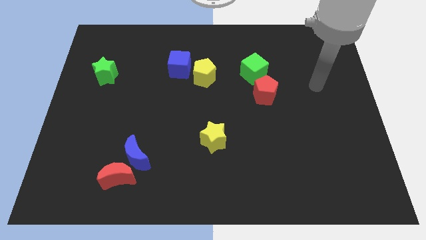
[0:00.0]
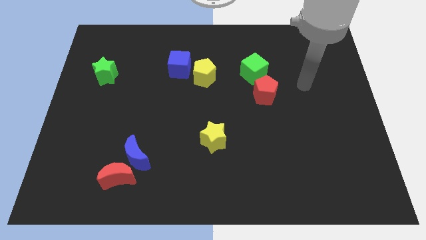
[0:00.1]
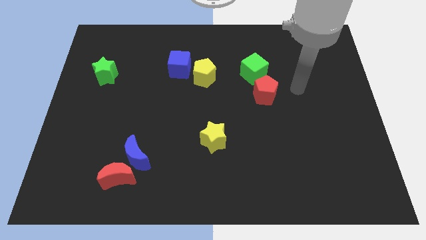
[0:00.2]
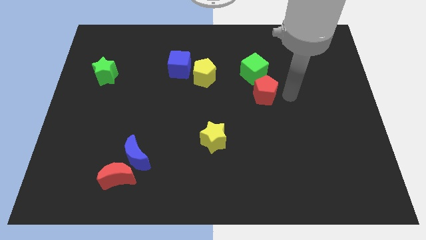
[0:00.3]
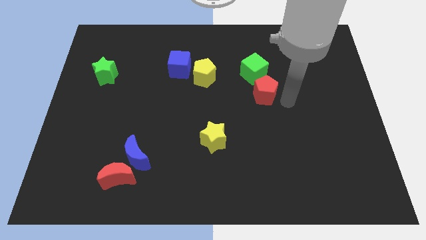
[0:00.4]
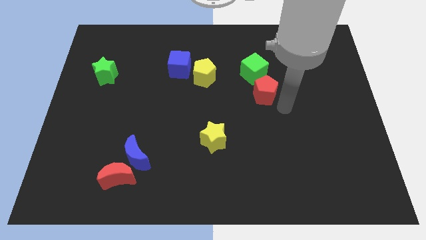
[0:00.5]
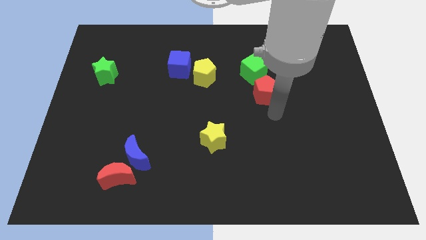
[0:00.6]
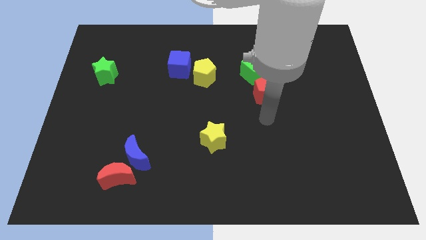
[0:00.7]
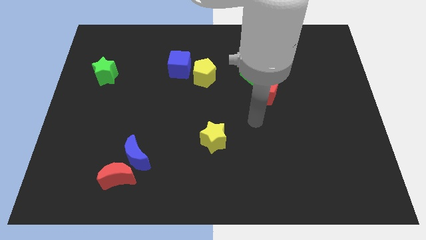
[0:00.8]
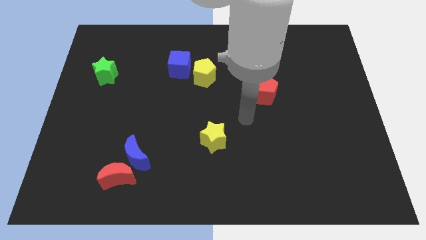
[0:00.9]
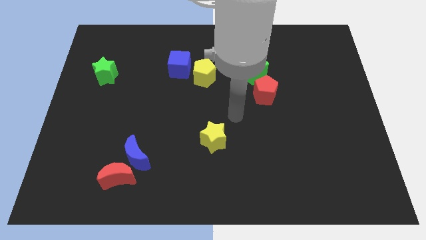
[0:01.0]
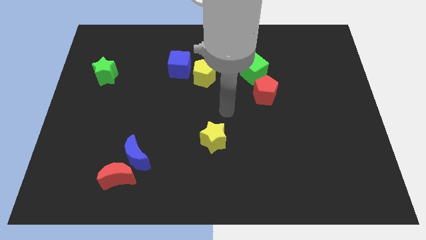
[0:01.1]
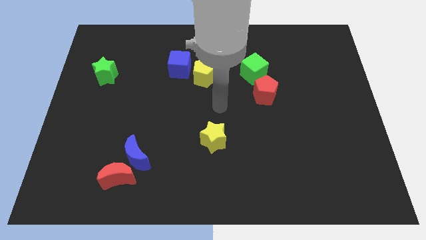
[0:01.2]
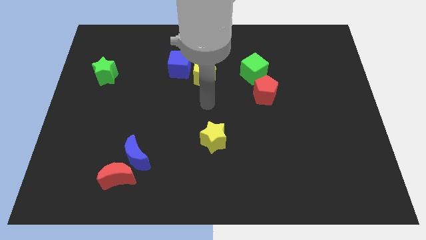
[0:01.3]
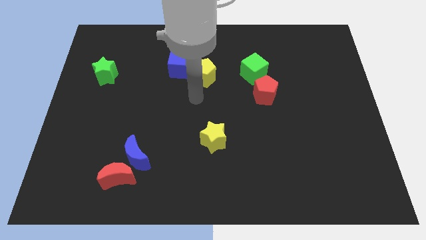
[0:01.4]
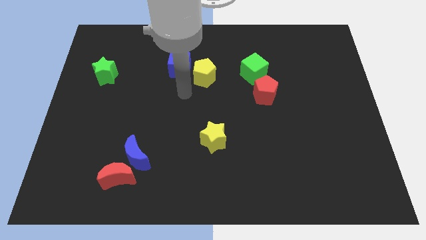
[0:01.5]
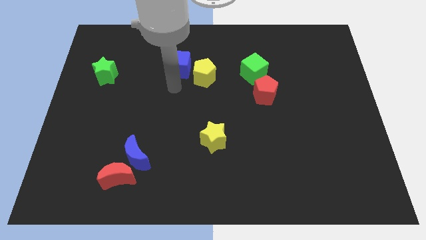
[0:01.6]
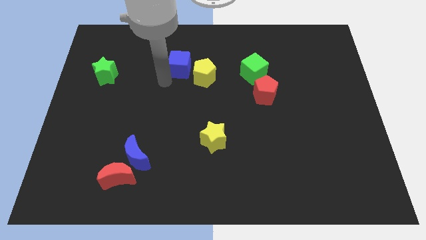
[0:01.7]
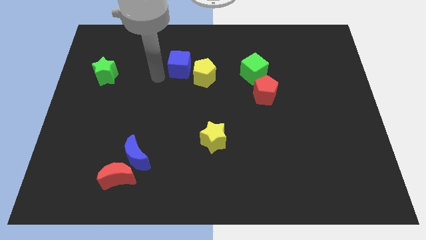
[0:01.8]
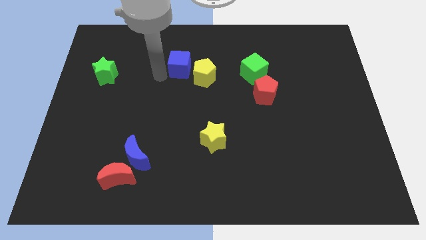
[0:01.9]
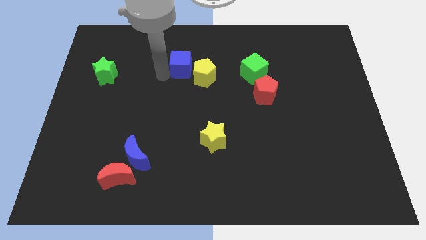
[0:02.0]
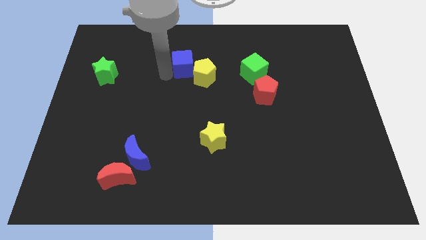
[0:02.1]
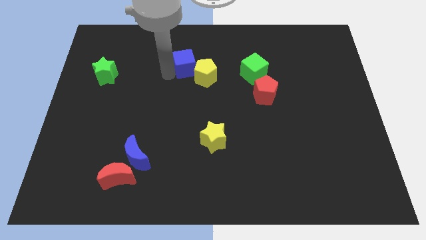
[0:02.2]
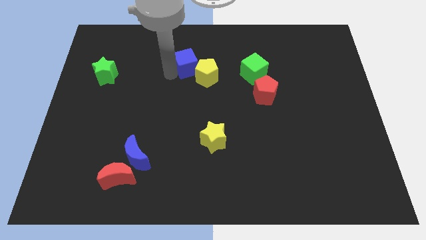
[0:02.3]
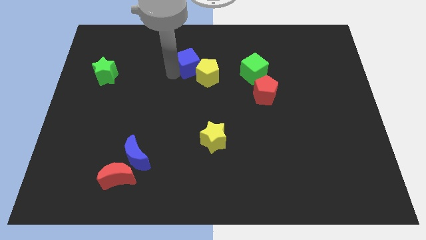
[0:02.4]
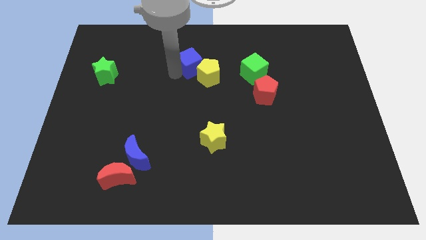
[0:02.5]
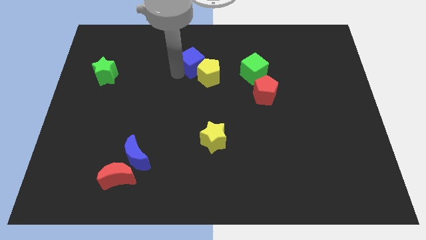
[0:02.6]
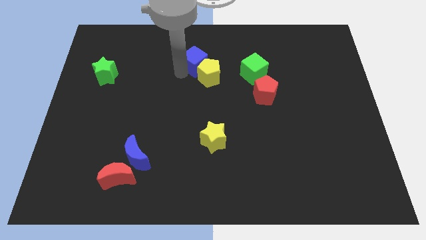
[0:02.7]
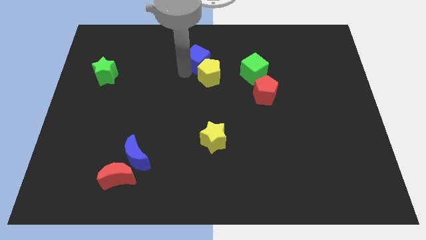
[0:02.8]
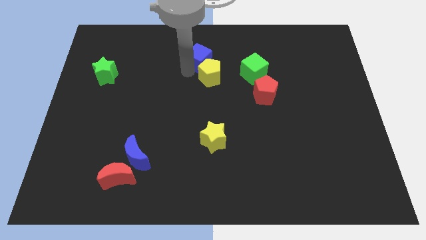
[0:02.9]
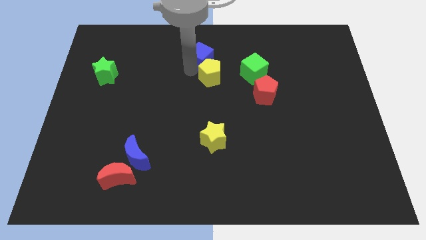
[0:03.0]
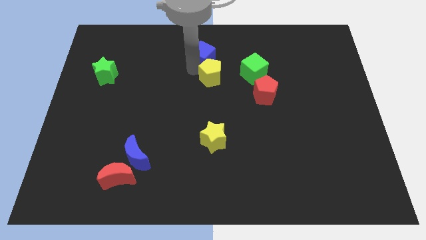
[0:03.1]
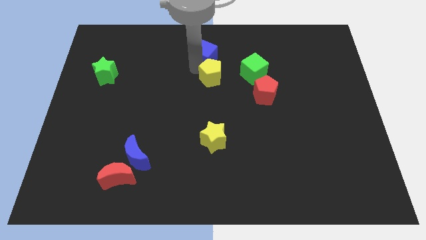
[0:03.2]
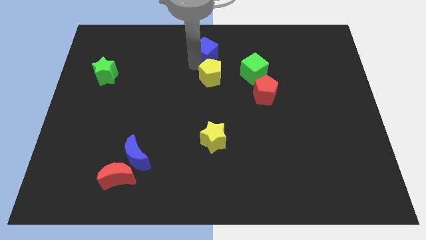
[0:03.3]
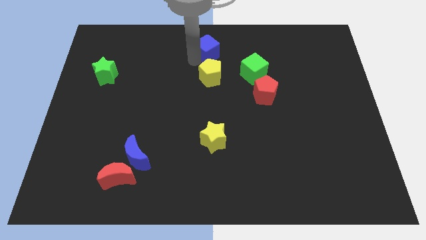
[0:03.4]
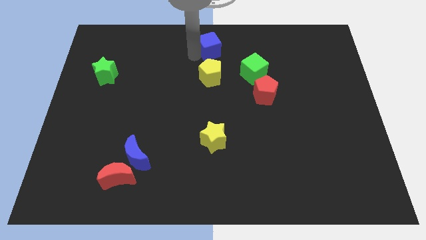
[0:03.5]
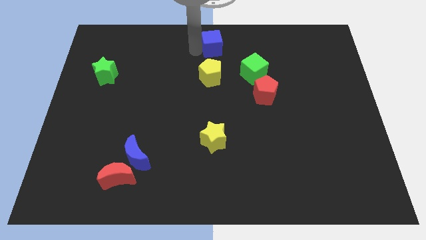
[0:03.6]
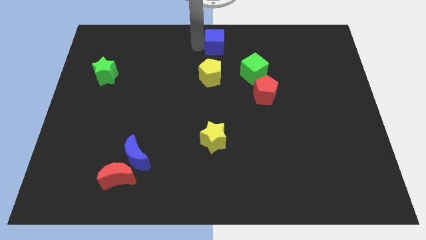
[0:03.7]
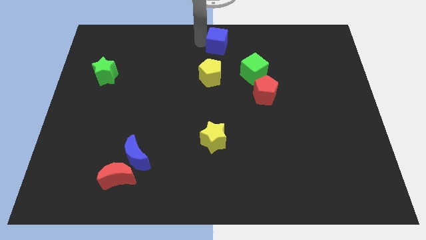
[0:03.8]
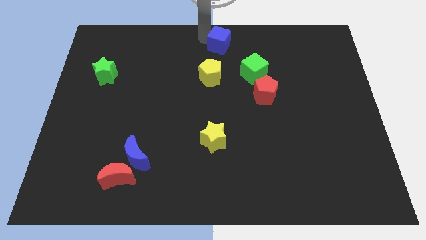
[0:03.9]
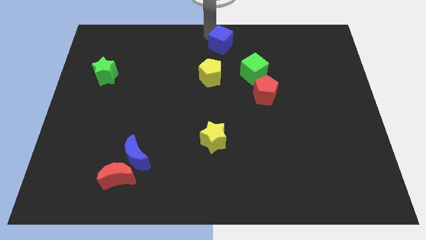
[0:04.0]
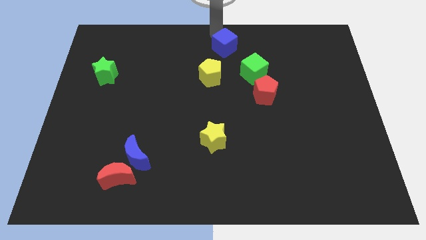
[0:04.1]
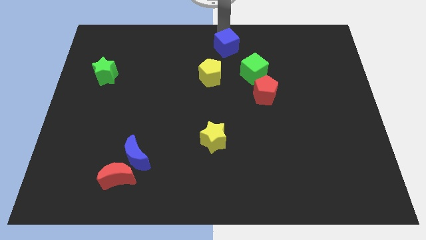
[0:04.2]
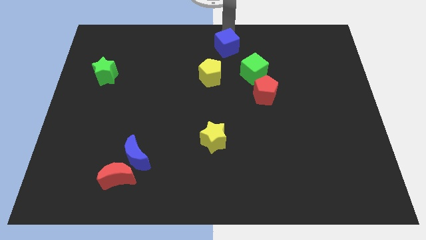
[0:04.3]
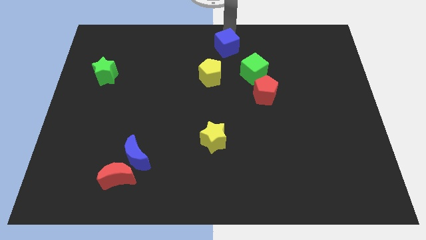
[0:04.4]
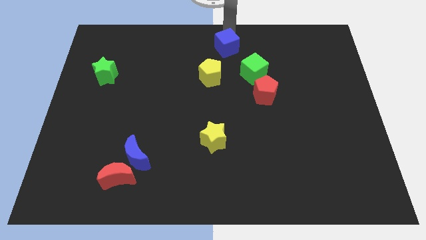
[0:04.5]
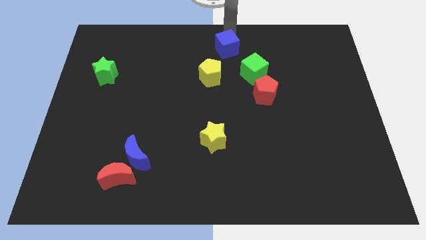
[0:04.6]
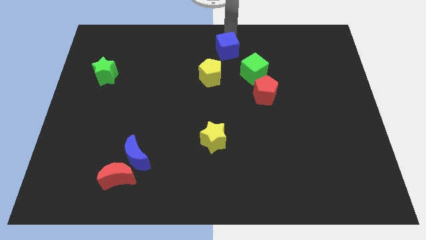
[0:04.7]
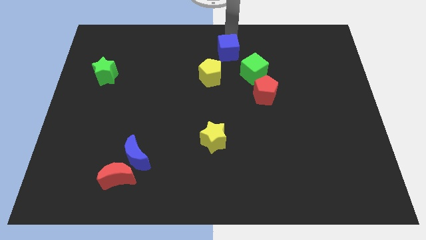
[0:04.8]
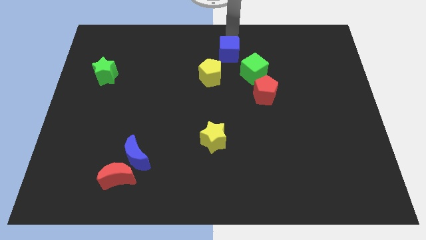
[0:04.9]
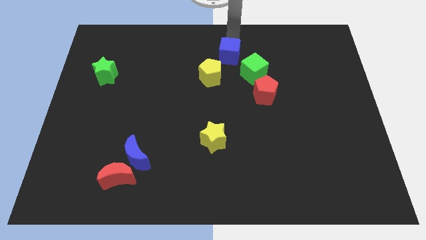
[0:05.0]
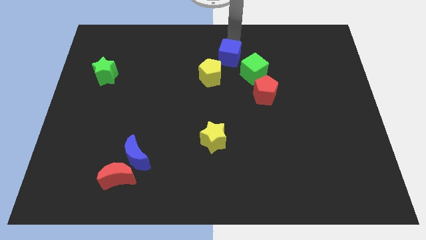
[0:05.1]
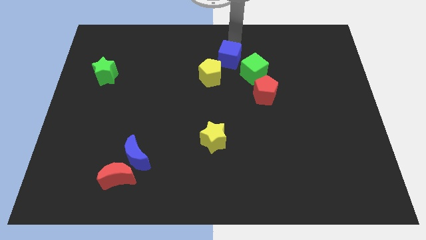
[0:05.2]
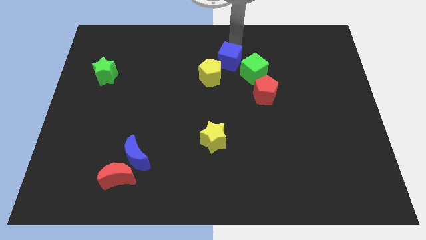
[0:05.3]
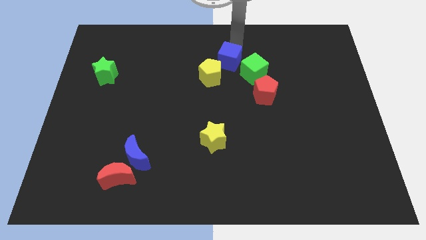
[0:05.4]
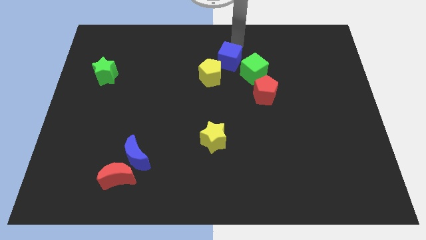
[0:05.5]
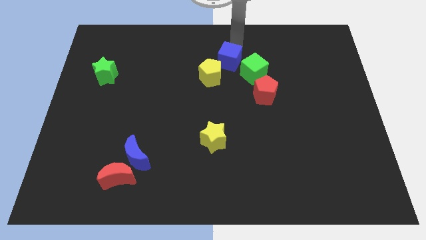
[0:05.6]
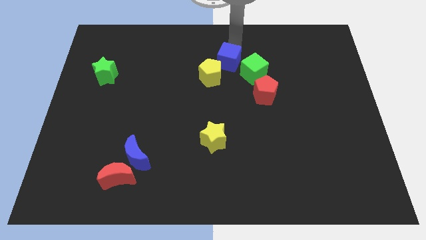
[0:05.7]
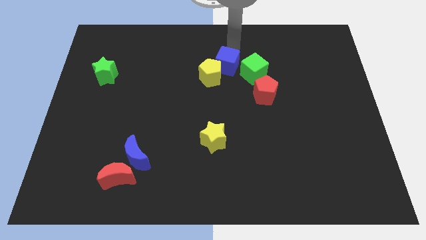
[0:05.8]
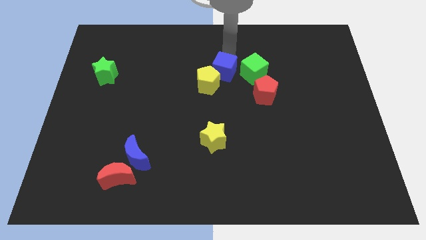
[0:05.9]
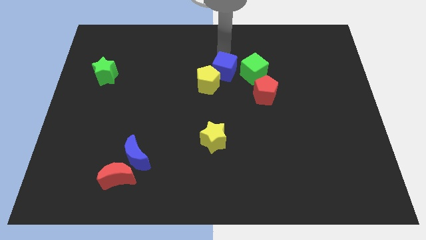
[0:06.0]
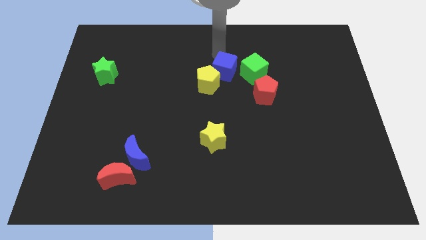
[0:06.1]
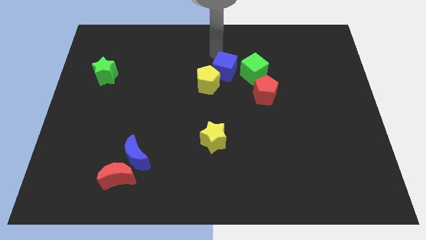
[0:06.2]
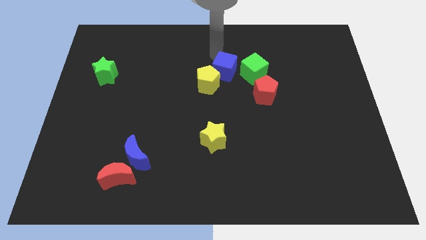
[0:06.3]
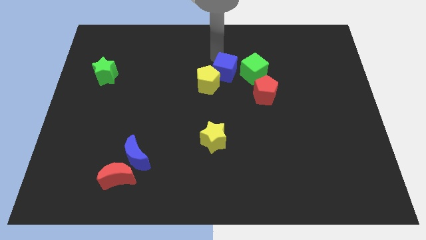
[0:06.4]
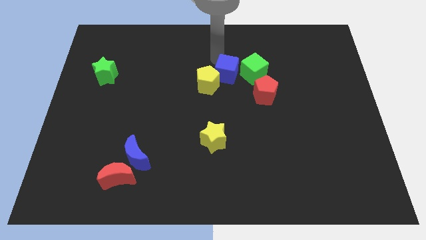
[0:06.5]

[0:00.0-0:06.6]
move the blue cube to the bottom left side of the green cube
